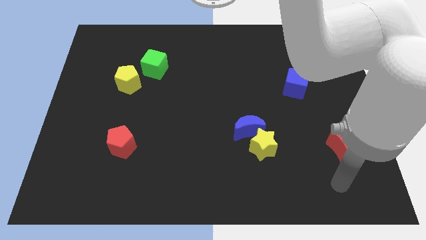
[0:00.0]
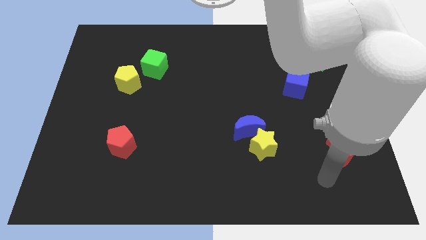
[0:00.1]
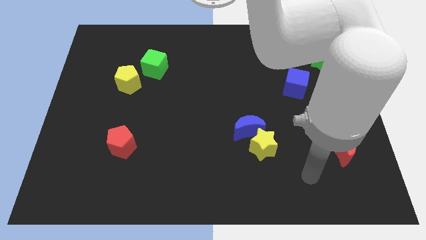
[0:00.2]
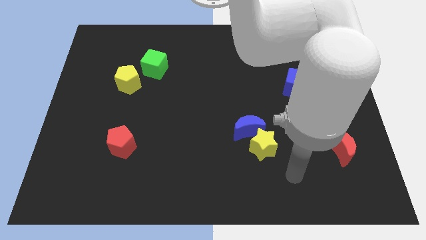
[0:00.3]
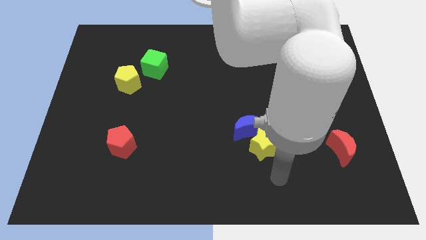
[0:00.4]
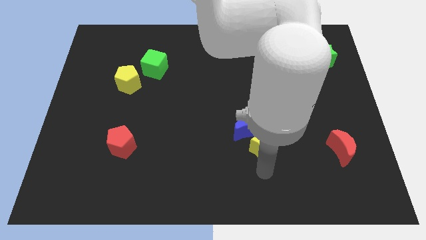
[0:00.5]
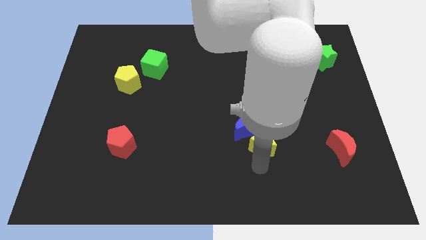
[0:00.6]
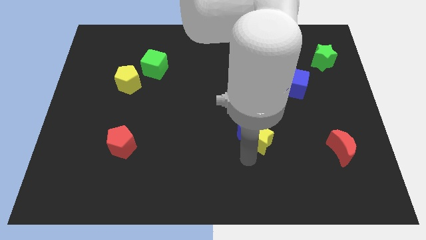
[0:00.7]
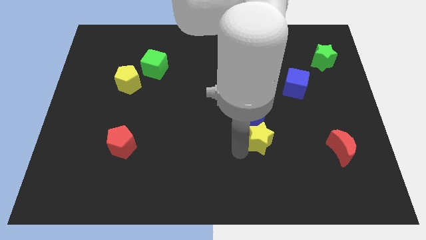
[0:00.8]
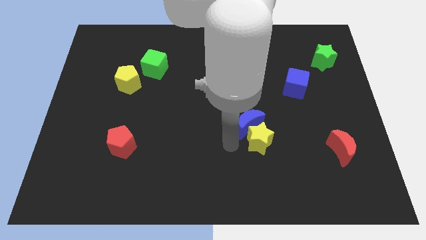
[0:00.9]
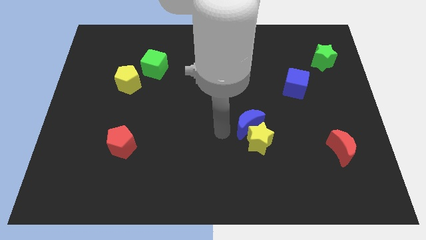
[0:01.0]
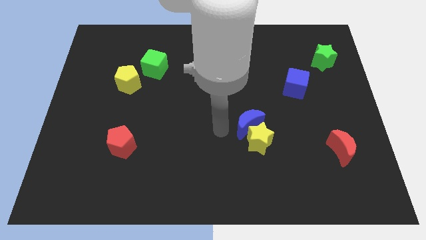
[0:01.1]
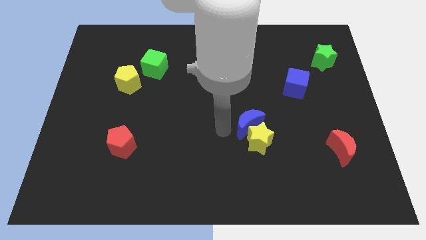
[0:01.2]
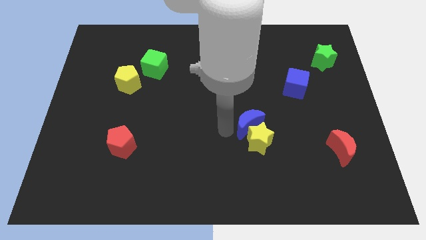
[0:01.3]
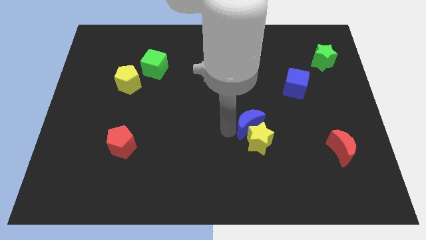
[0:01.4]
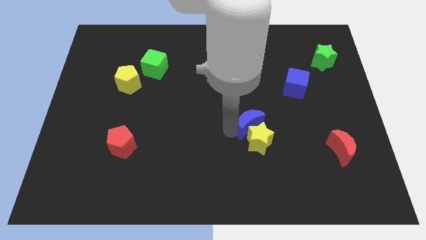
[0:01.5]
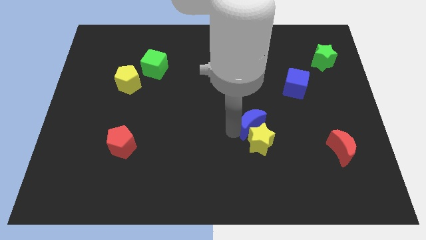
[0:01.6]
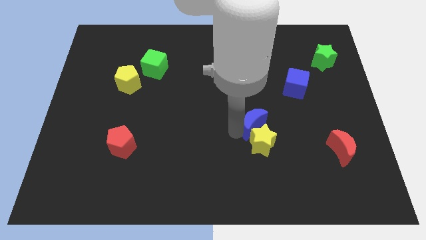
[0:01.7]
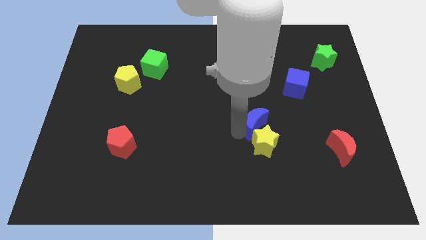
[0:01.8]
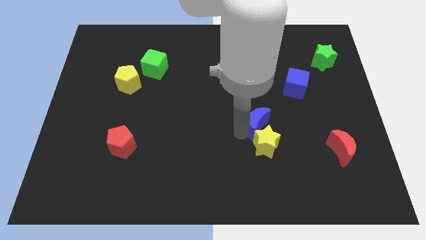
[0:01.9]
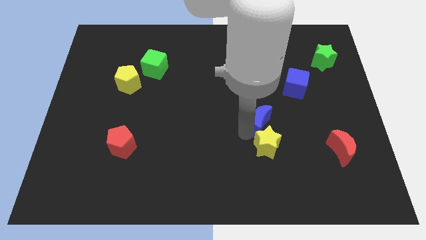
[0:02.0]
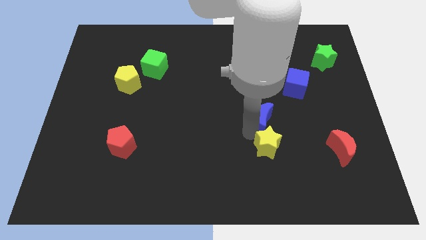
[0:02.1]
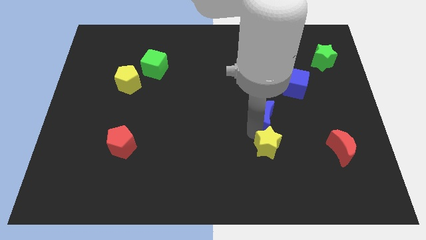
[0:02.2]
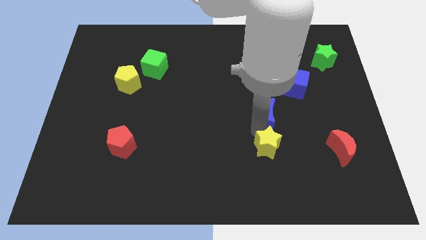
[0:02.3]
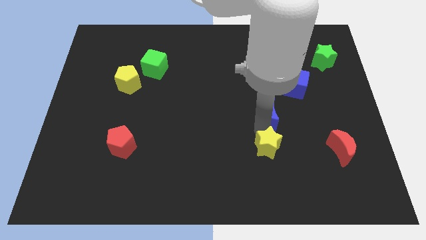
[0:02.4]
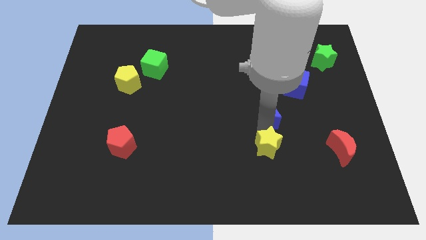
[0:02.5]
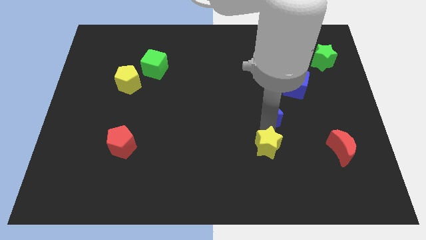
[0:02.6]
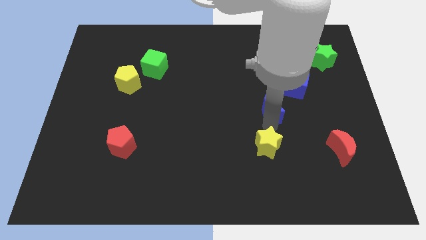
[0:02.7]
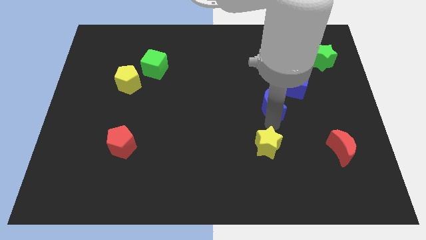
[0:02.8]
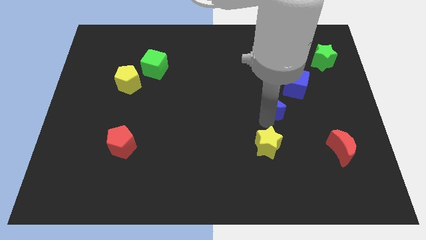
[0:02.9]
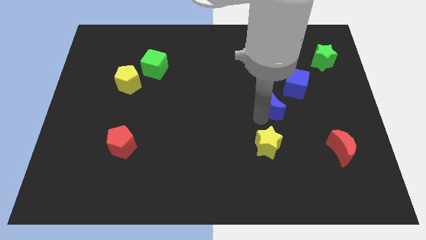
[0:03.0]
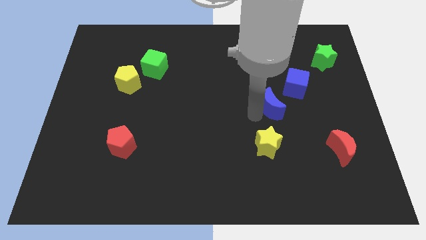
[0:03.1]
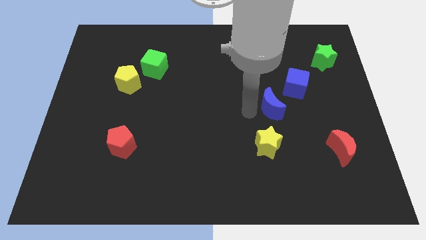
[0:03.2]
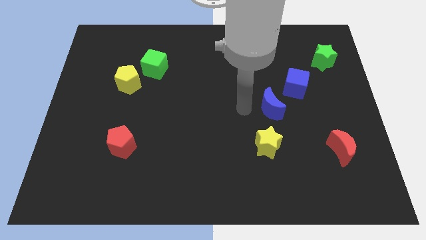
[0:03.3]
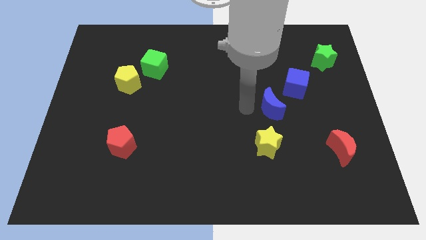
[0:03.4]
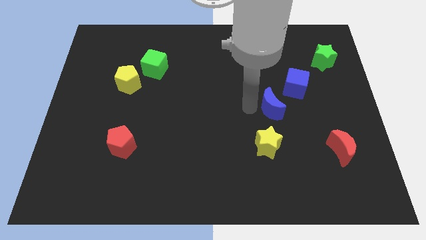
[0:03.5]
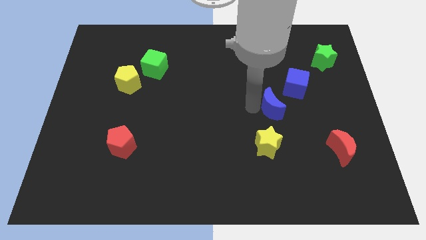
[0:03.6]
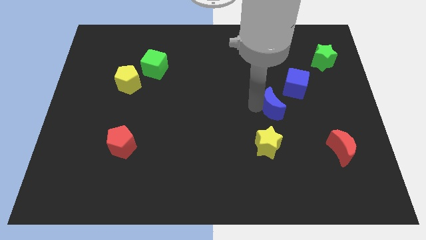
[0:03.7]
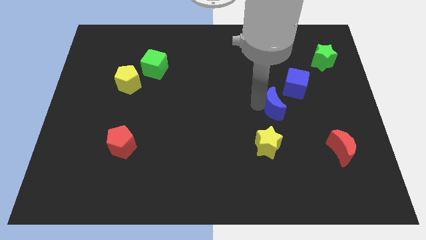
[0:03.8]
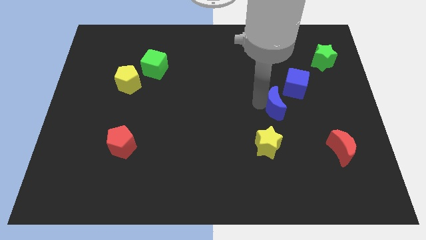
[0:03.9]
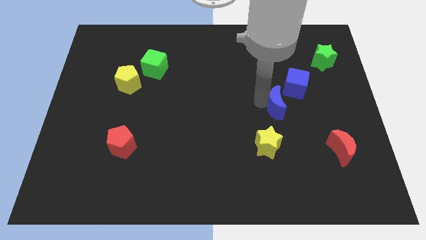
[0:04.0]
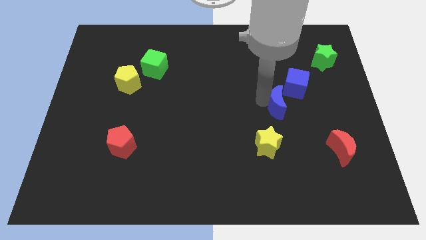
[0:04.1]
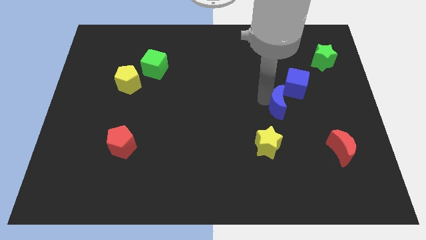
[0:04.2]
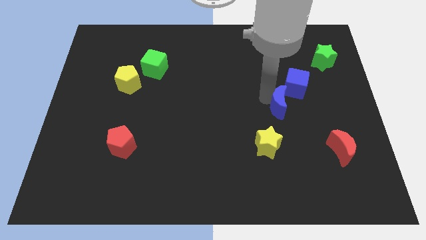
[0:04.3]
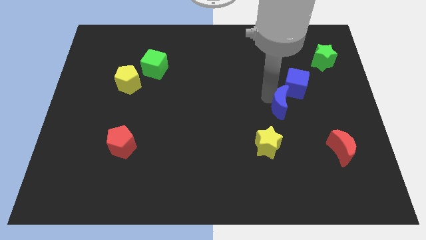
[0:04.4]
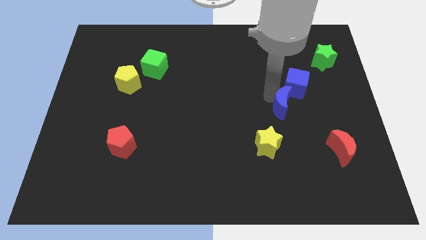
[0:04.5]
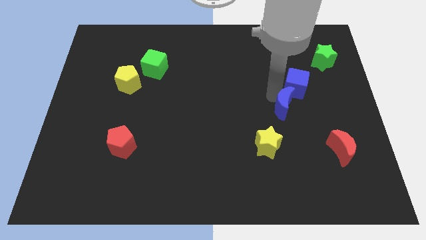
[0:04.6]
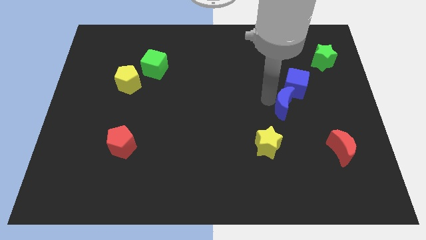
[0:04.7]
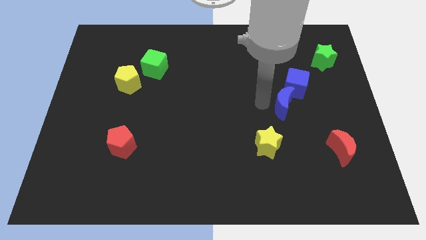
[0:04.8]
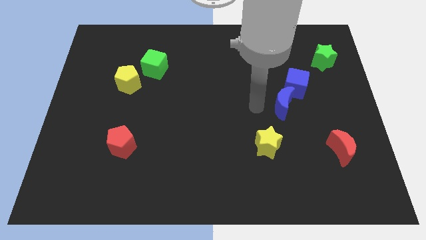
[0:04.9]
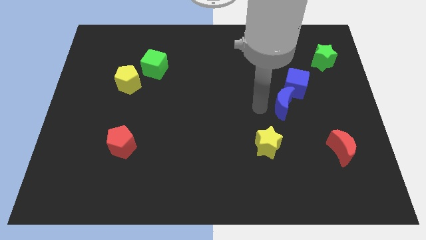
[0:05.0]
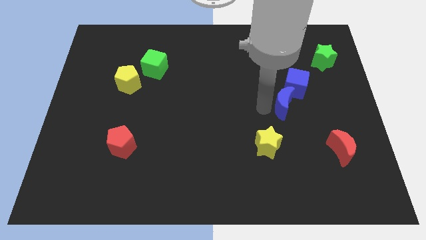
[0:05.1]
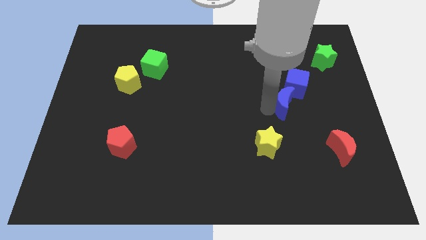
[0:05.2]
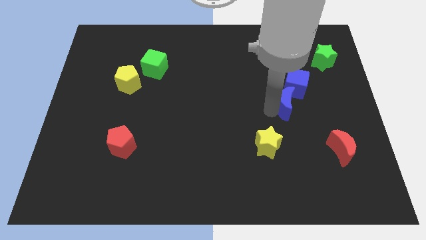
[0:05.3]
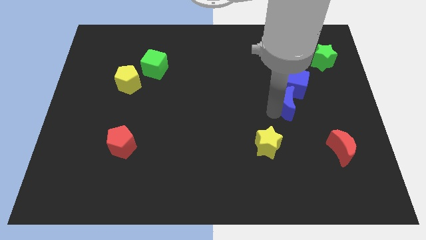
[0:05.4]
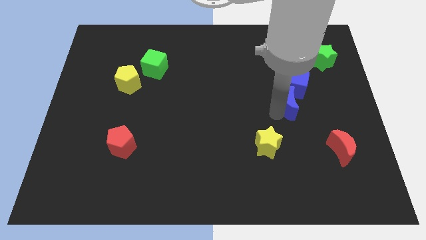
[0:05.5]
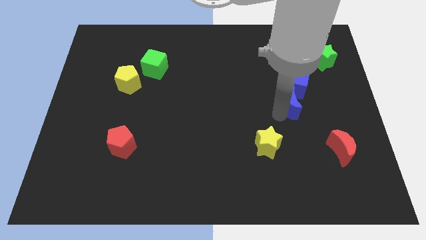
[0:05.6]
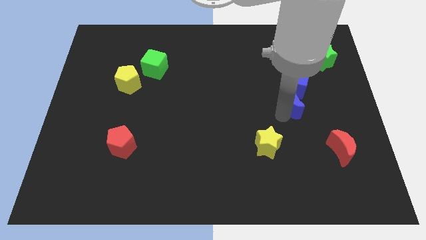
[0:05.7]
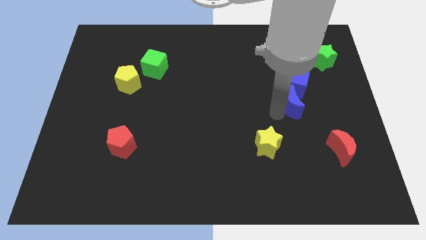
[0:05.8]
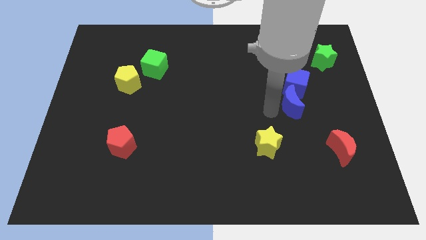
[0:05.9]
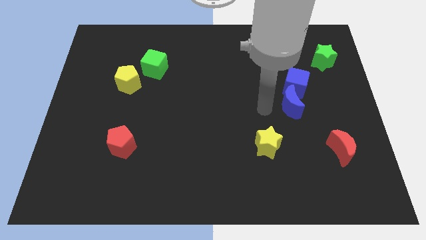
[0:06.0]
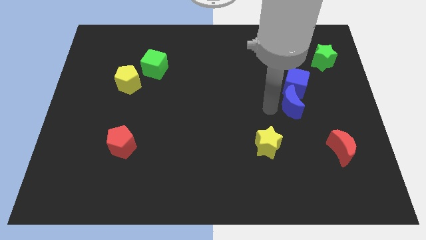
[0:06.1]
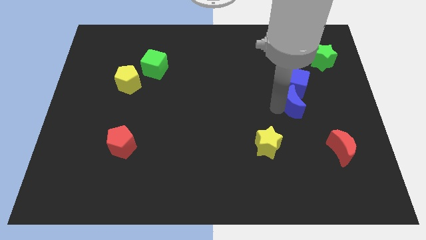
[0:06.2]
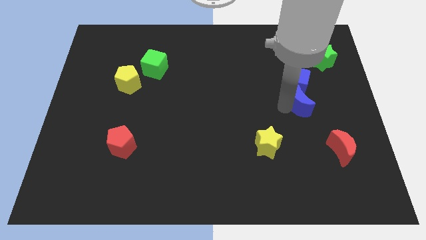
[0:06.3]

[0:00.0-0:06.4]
put the blue moon to the bottom right side of the blue cube

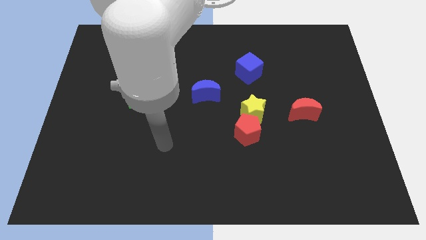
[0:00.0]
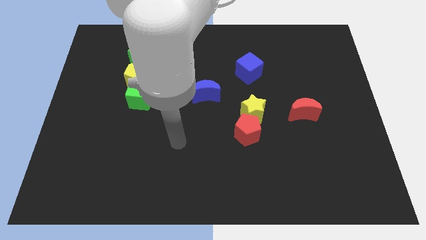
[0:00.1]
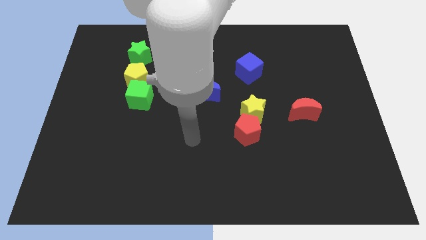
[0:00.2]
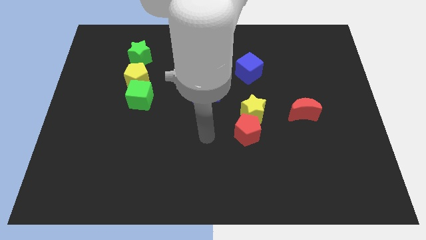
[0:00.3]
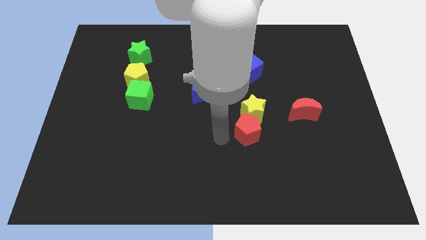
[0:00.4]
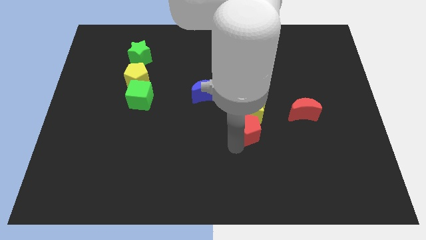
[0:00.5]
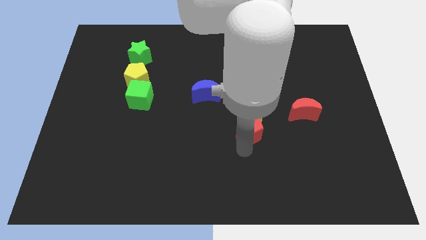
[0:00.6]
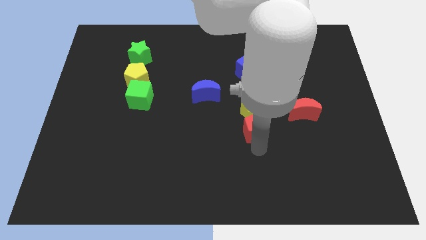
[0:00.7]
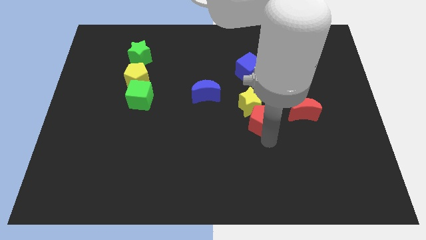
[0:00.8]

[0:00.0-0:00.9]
slide the red moon to the top right side of the red pentagon
